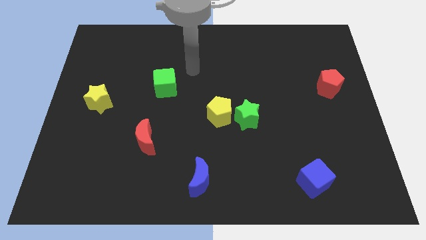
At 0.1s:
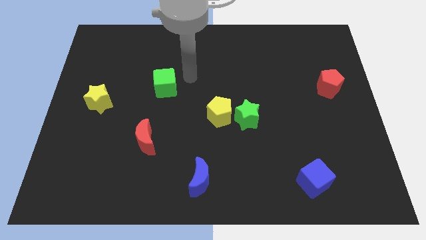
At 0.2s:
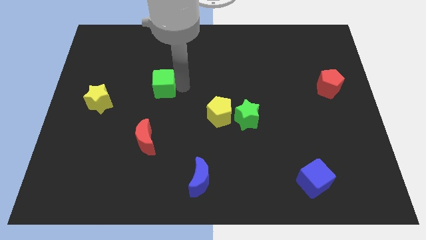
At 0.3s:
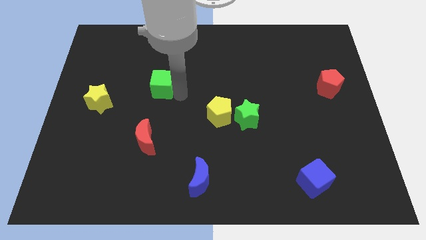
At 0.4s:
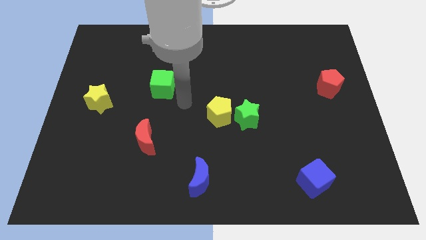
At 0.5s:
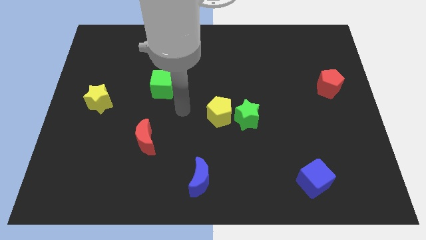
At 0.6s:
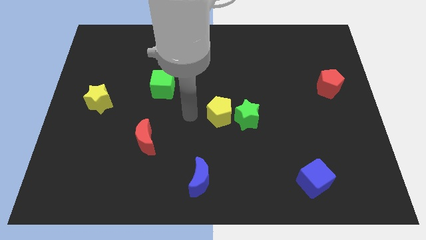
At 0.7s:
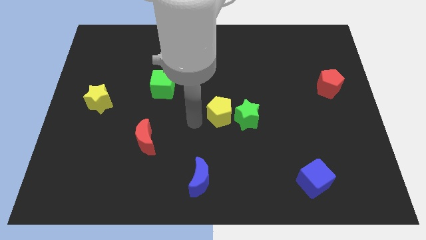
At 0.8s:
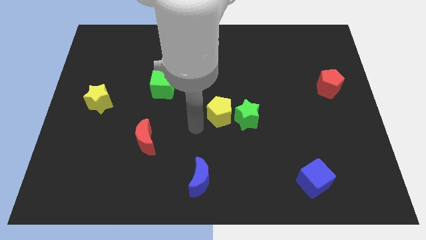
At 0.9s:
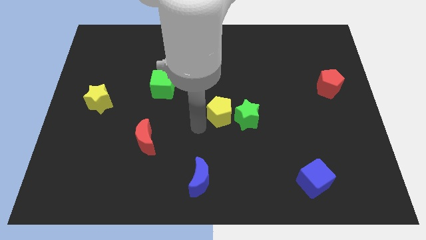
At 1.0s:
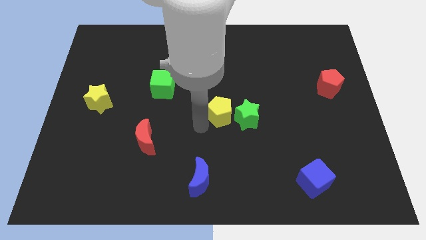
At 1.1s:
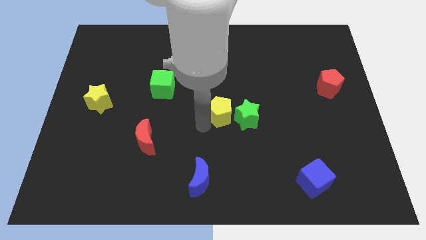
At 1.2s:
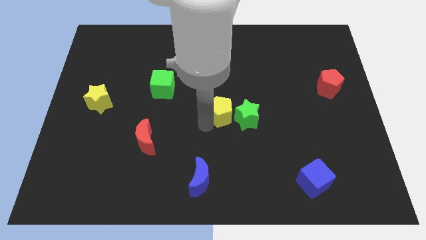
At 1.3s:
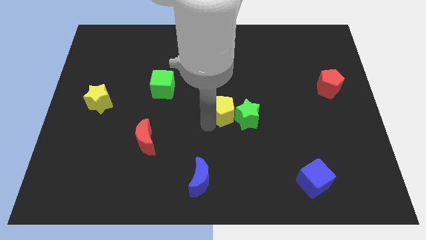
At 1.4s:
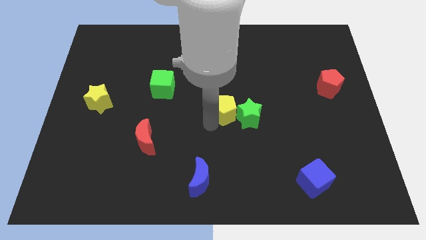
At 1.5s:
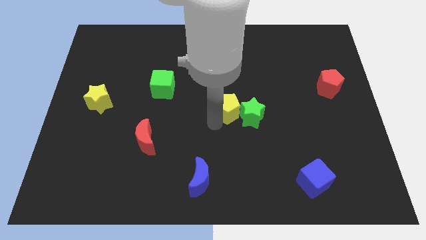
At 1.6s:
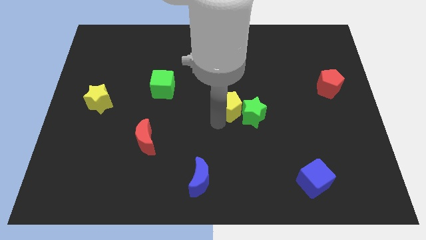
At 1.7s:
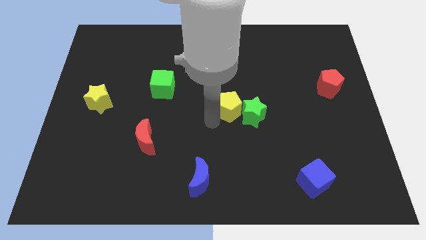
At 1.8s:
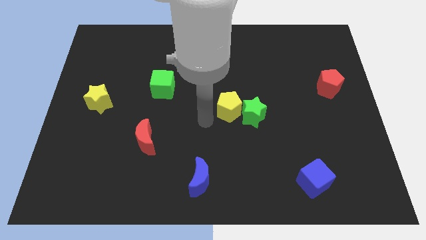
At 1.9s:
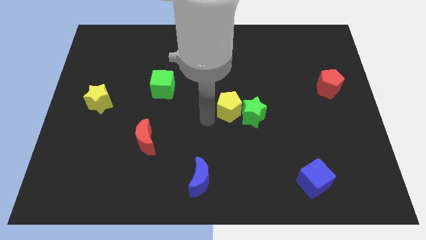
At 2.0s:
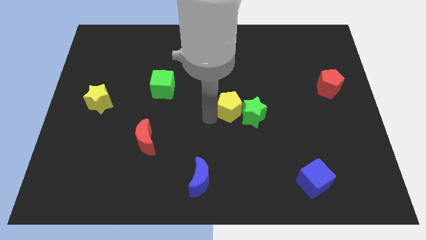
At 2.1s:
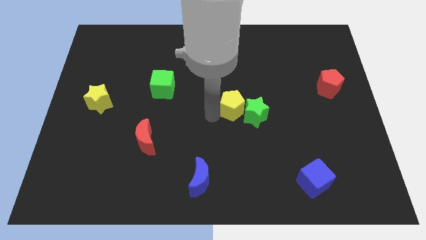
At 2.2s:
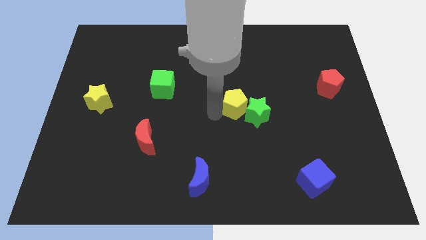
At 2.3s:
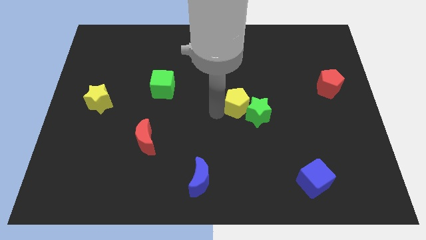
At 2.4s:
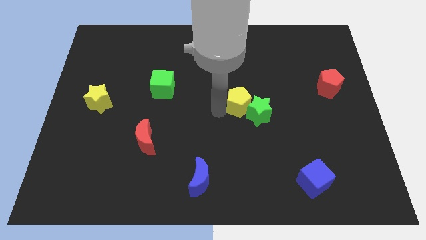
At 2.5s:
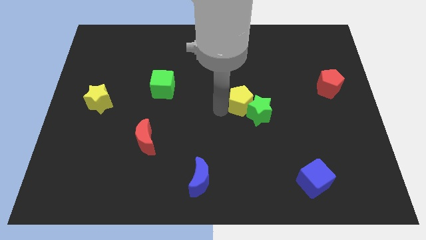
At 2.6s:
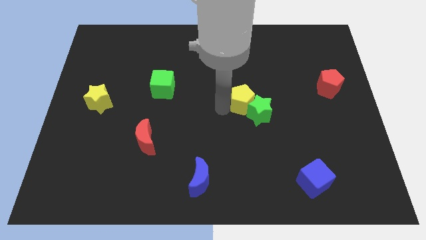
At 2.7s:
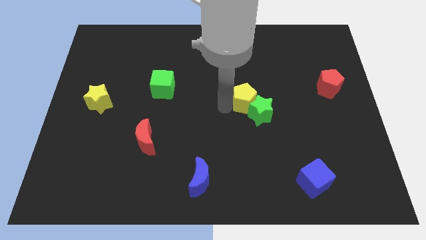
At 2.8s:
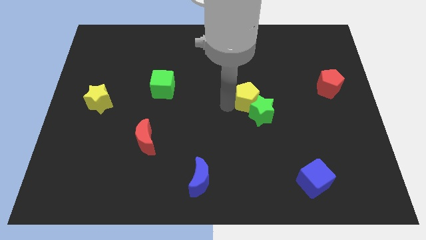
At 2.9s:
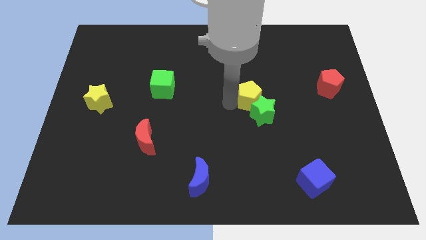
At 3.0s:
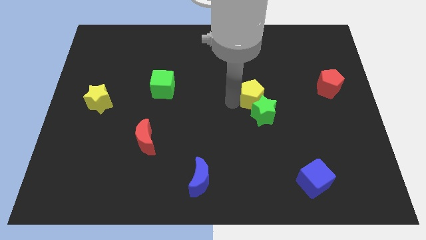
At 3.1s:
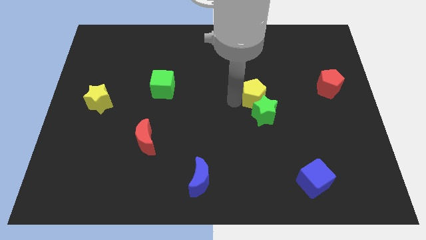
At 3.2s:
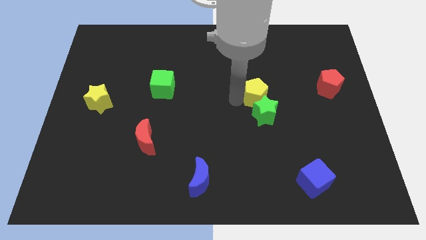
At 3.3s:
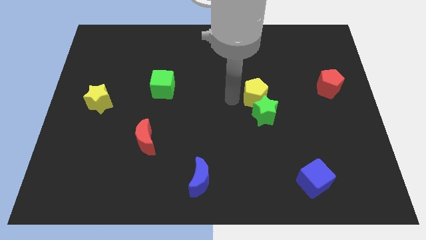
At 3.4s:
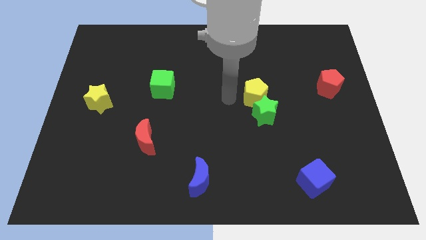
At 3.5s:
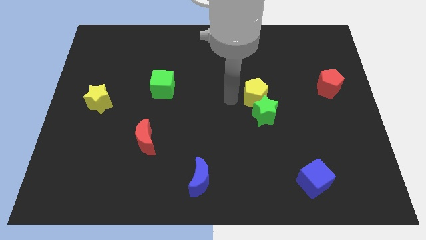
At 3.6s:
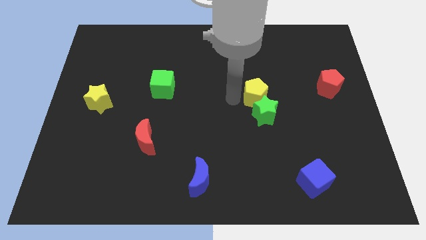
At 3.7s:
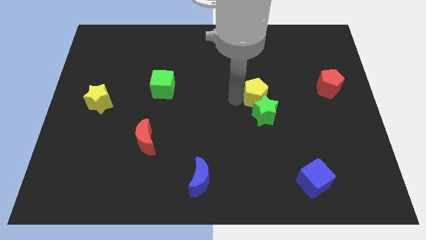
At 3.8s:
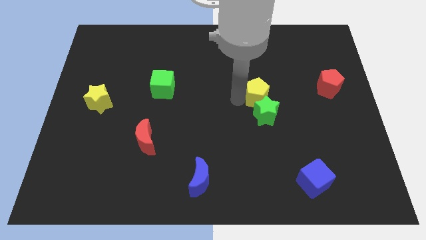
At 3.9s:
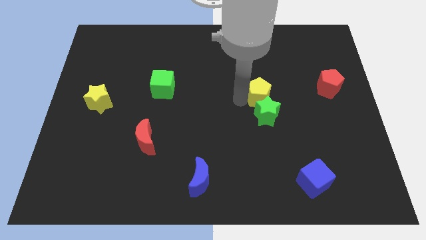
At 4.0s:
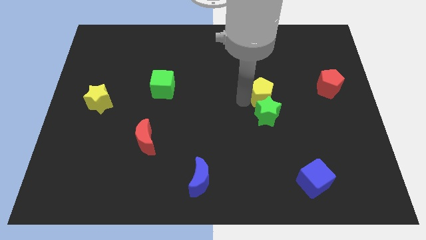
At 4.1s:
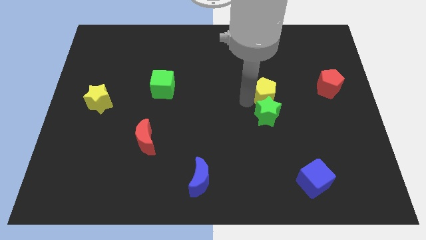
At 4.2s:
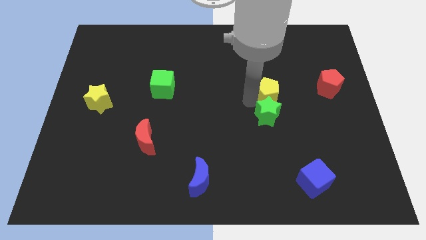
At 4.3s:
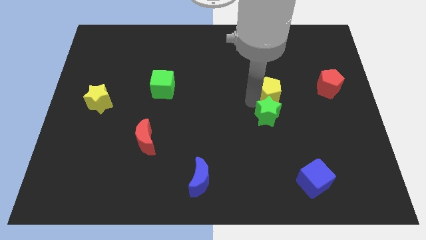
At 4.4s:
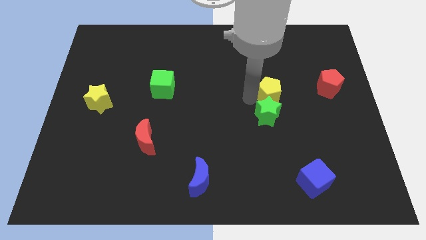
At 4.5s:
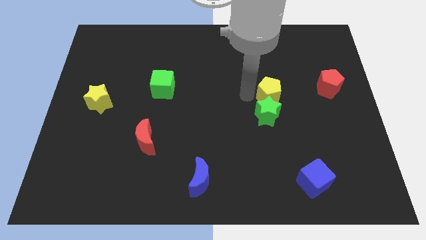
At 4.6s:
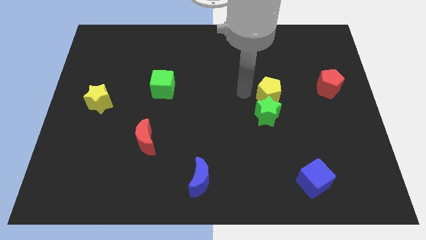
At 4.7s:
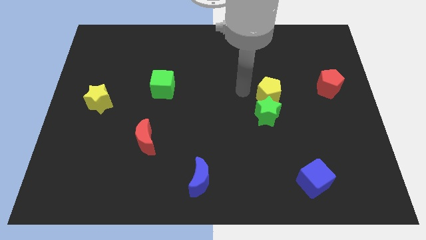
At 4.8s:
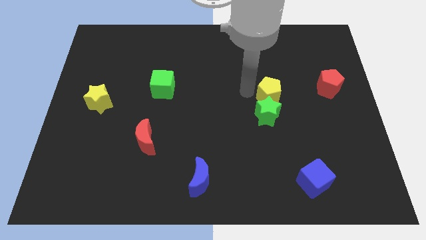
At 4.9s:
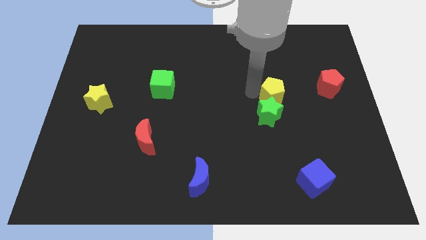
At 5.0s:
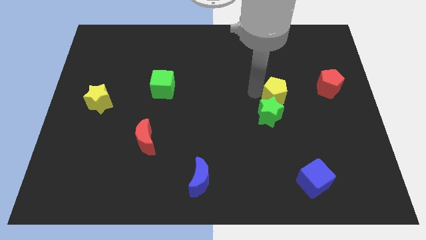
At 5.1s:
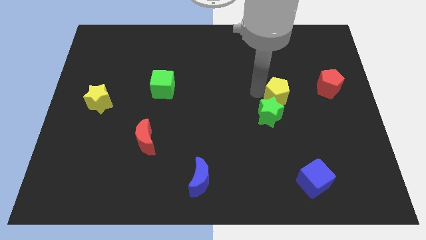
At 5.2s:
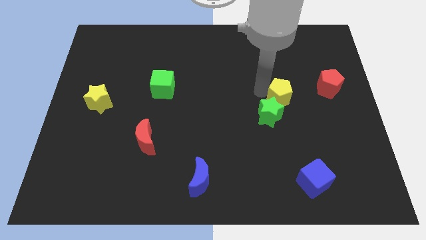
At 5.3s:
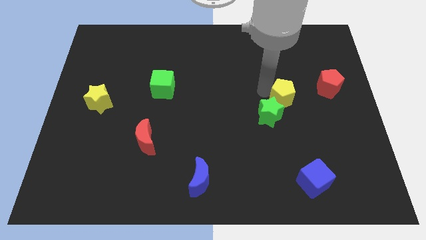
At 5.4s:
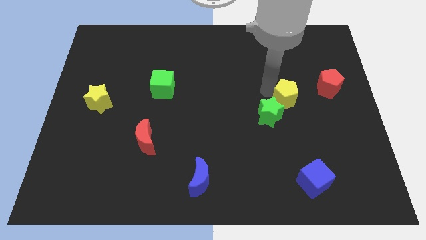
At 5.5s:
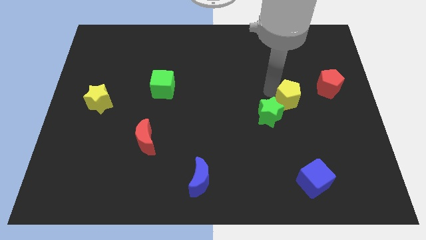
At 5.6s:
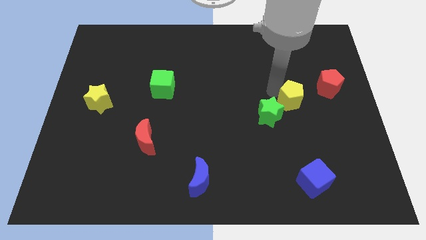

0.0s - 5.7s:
put the yellow pentagon diagonally down and to the left of the red pentagon

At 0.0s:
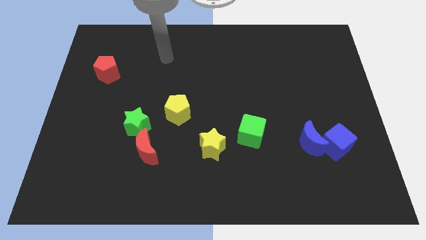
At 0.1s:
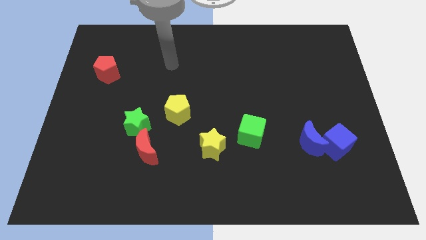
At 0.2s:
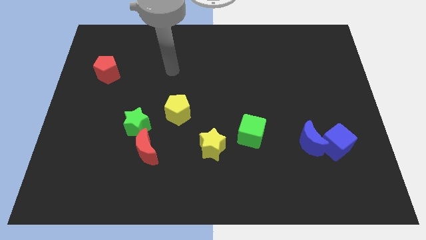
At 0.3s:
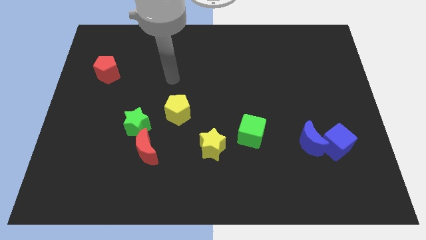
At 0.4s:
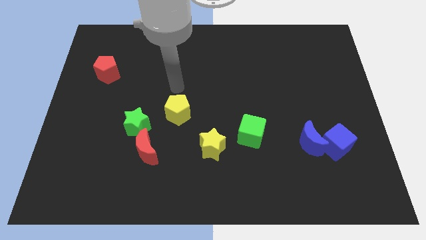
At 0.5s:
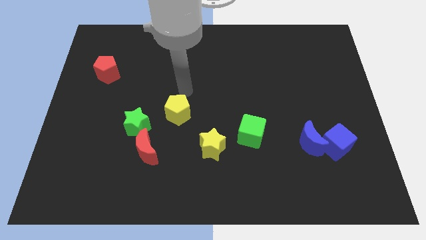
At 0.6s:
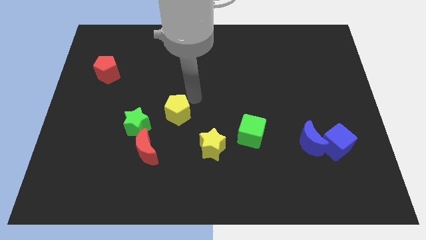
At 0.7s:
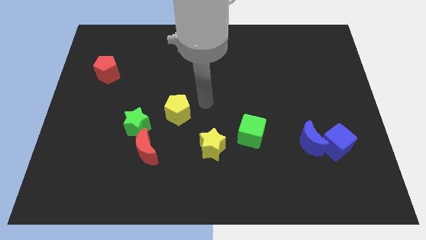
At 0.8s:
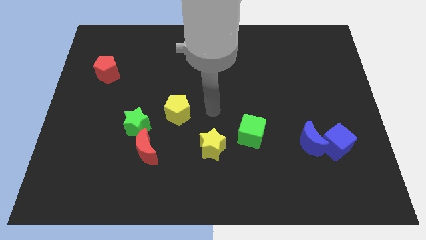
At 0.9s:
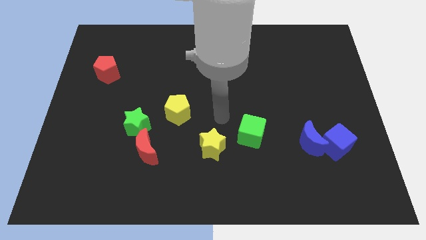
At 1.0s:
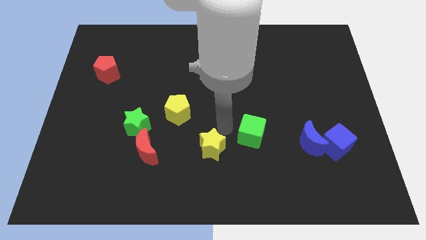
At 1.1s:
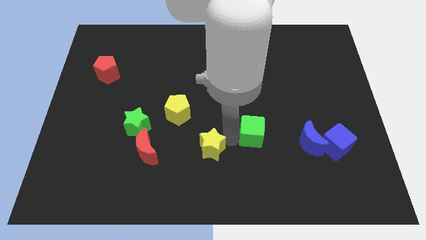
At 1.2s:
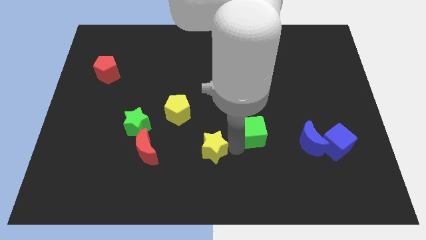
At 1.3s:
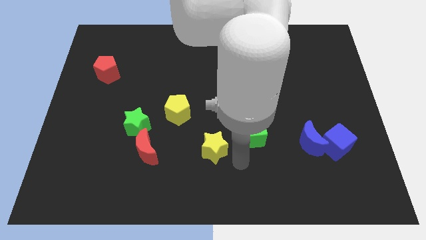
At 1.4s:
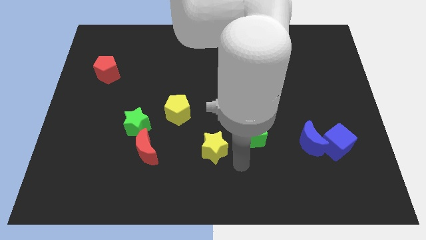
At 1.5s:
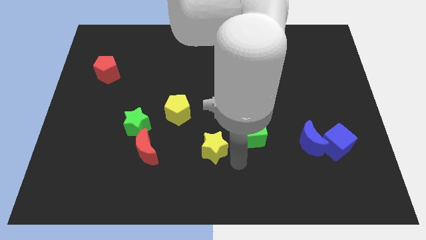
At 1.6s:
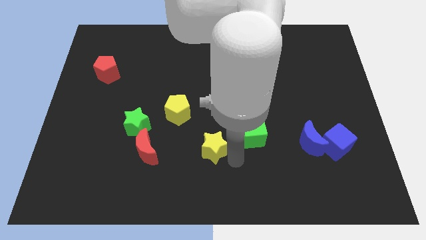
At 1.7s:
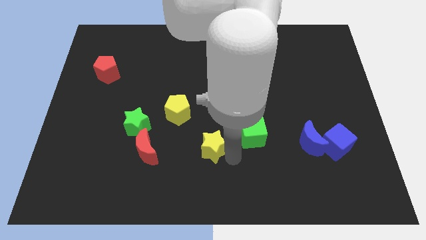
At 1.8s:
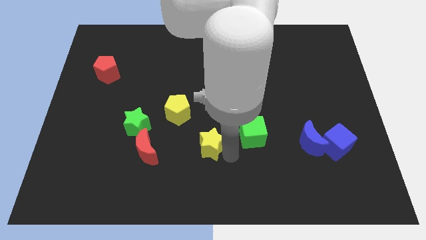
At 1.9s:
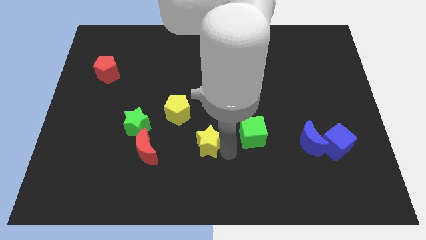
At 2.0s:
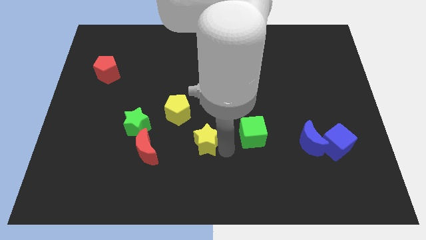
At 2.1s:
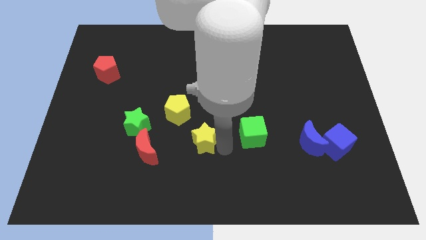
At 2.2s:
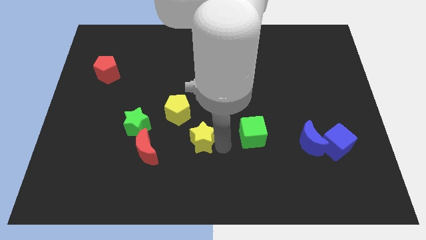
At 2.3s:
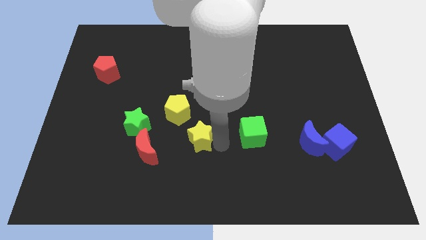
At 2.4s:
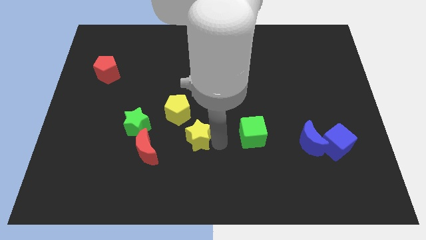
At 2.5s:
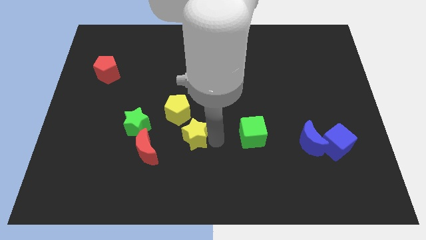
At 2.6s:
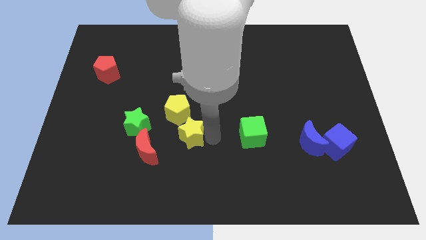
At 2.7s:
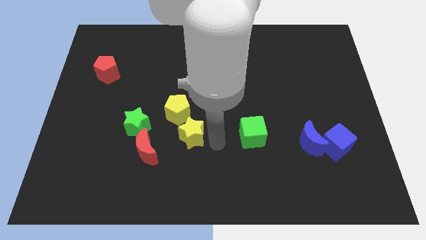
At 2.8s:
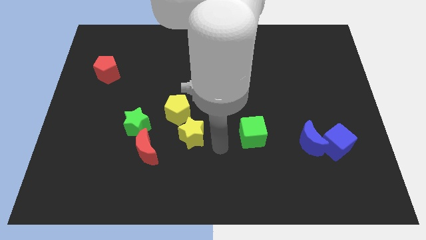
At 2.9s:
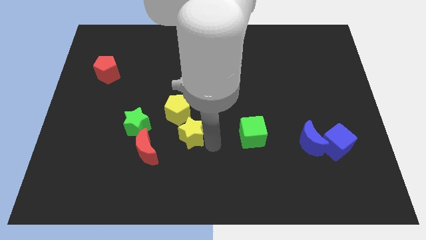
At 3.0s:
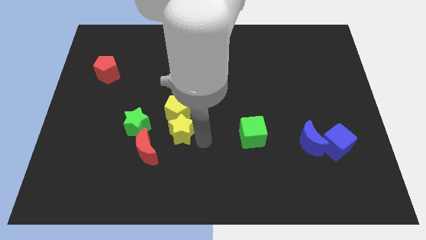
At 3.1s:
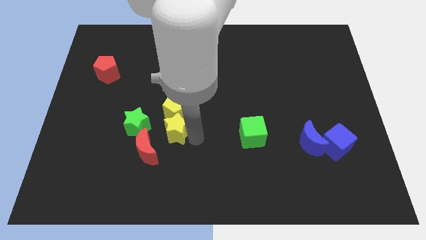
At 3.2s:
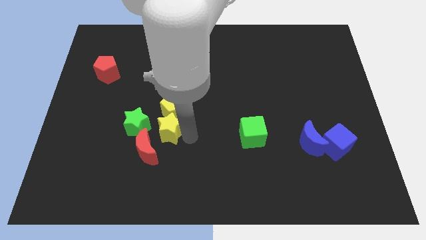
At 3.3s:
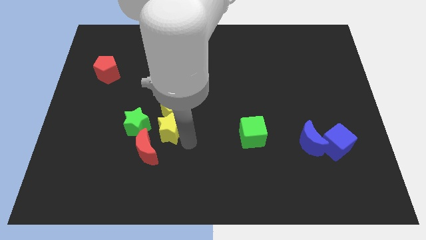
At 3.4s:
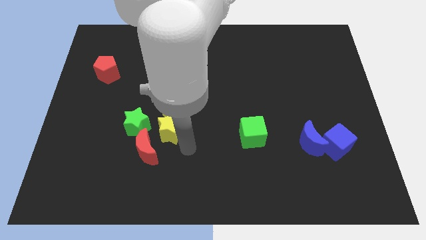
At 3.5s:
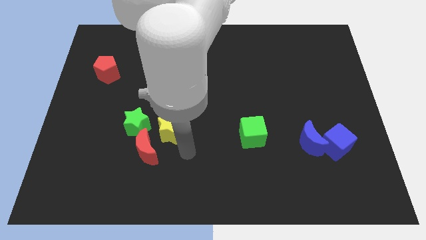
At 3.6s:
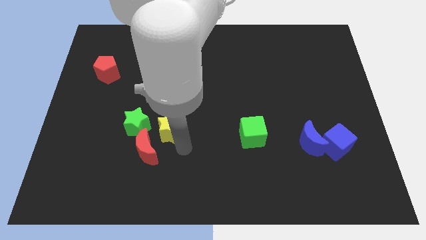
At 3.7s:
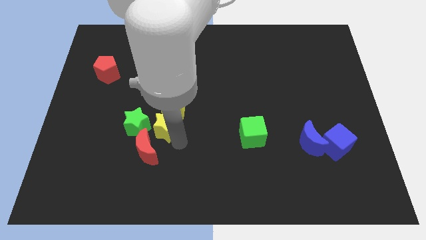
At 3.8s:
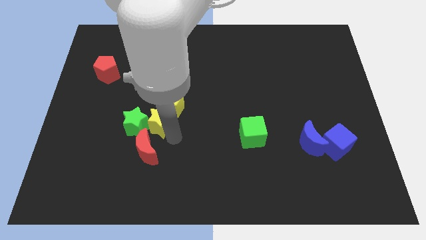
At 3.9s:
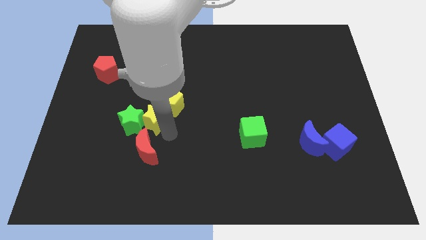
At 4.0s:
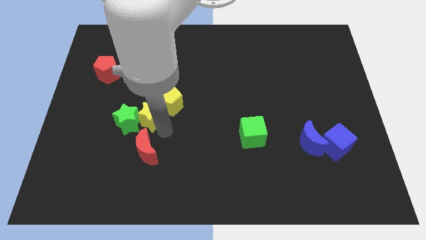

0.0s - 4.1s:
push the yellow star to the left side of the yellow pentagon
